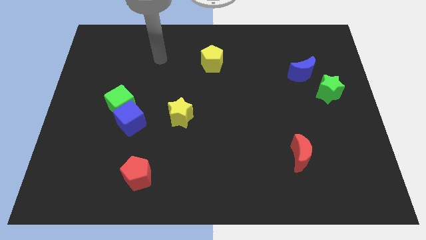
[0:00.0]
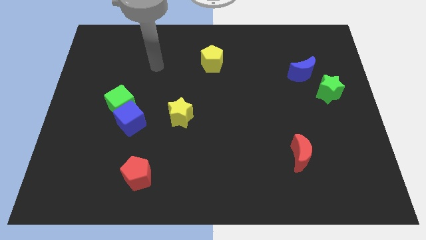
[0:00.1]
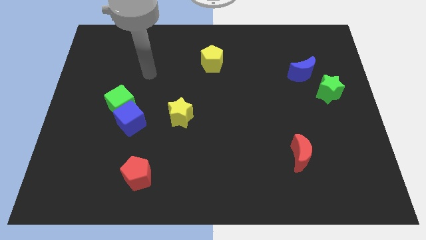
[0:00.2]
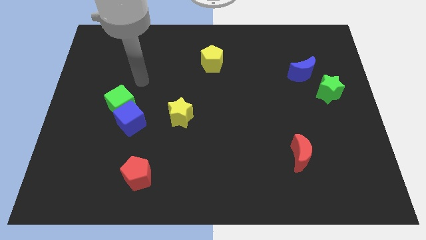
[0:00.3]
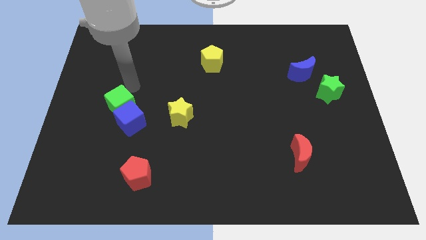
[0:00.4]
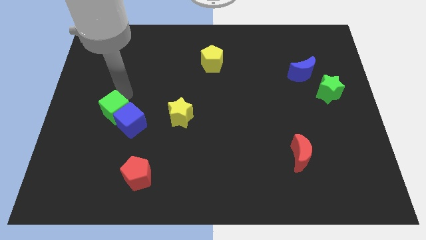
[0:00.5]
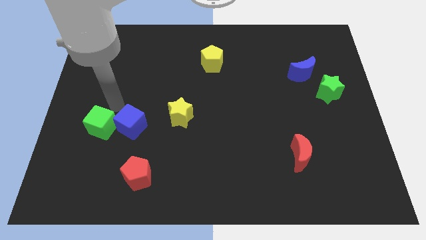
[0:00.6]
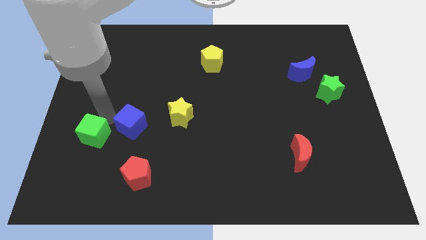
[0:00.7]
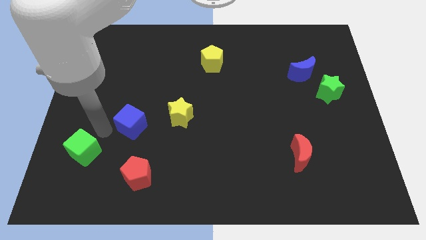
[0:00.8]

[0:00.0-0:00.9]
separate the blue cube from the green cube

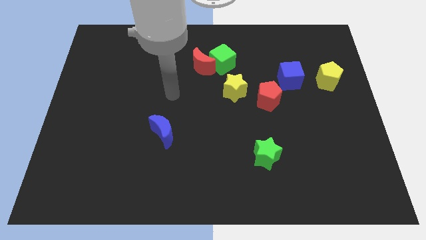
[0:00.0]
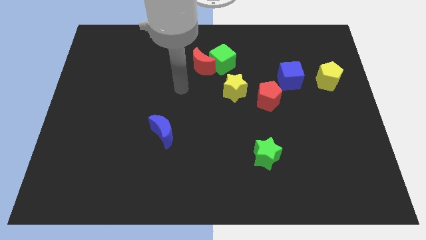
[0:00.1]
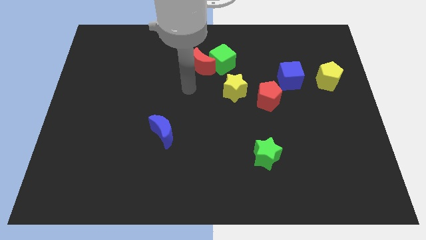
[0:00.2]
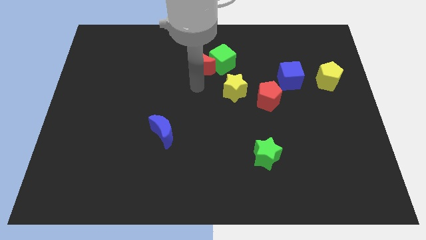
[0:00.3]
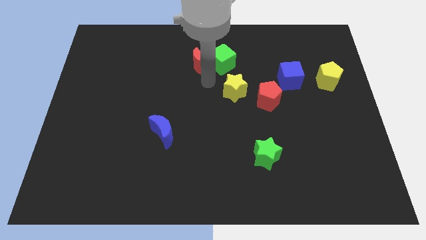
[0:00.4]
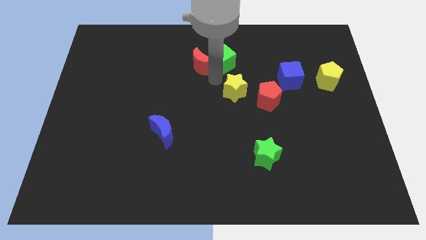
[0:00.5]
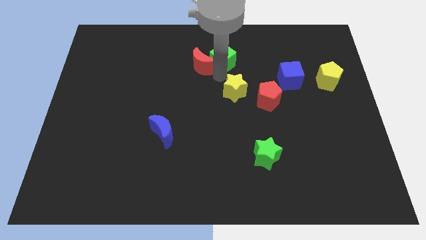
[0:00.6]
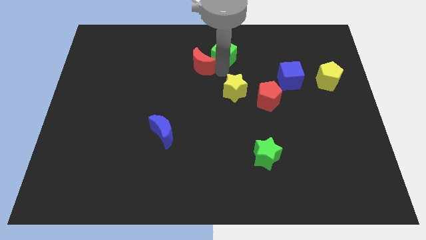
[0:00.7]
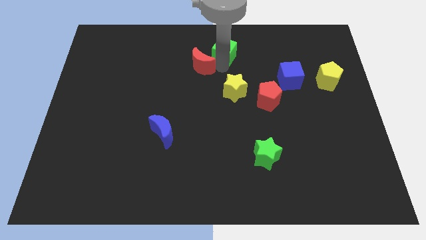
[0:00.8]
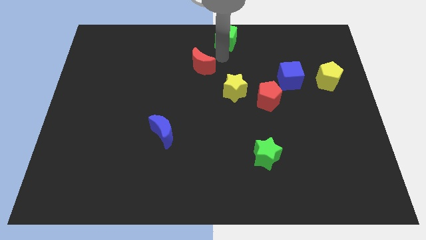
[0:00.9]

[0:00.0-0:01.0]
separate the red moon from the green cube

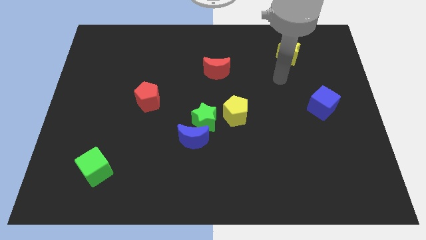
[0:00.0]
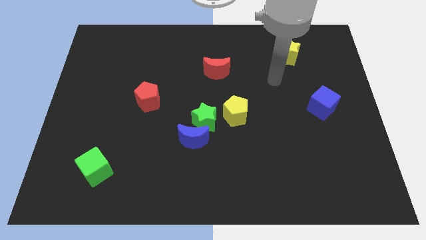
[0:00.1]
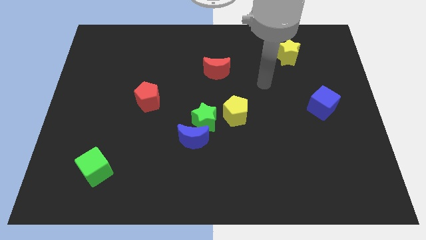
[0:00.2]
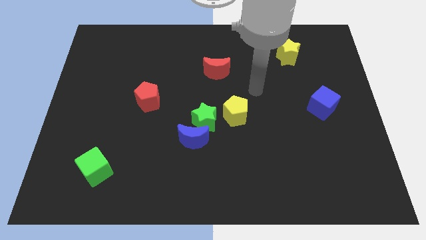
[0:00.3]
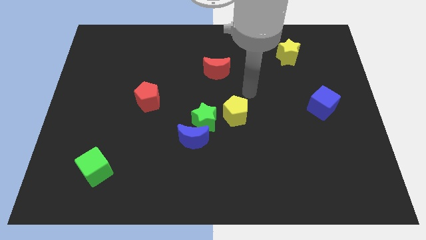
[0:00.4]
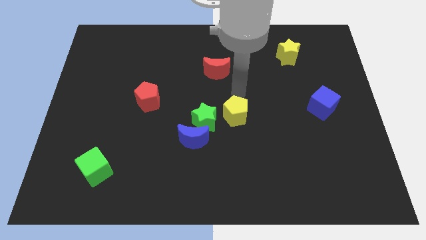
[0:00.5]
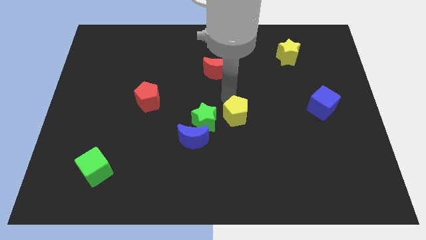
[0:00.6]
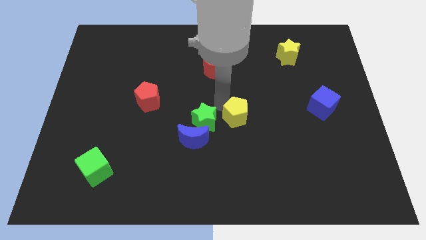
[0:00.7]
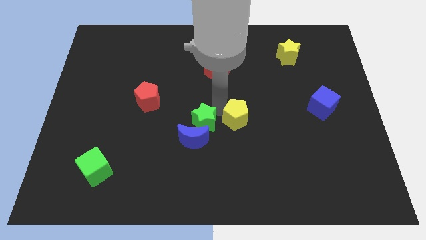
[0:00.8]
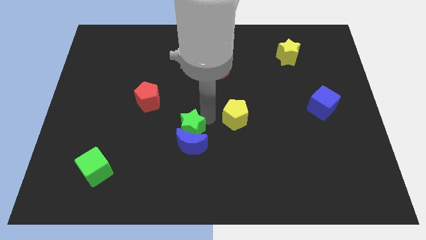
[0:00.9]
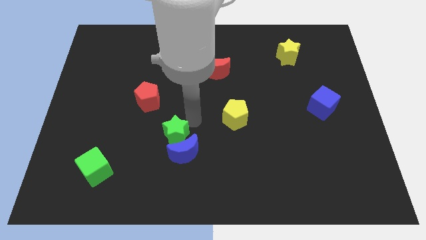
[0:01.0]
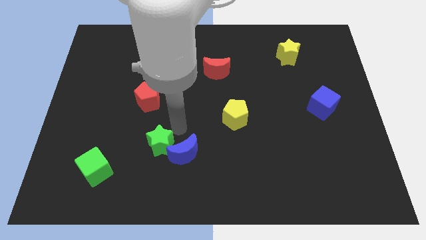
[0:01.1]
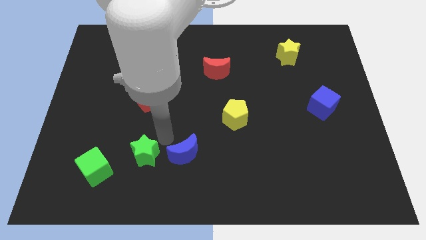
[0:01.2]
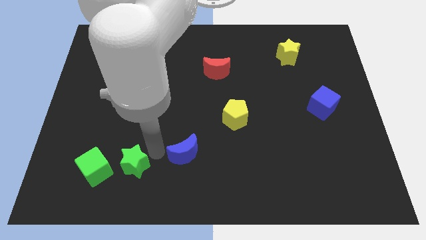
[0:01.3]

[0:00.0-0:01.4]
separate the blue moon from the green star

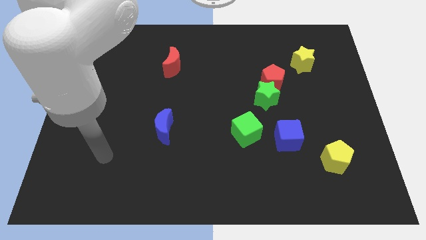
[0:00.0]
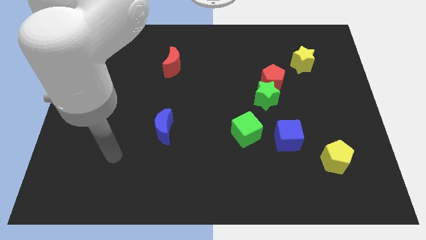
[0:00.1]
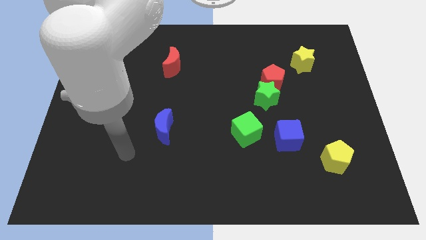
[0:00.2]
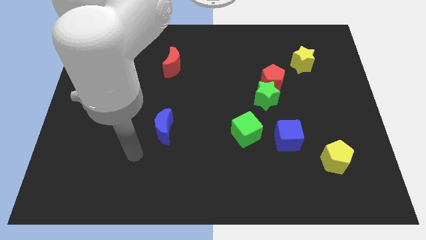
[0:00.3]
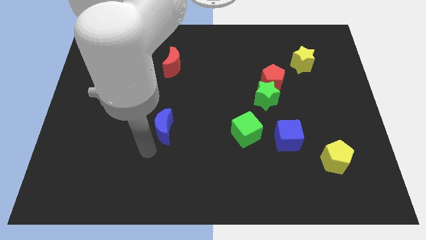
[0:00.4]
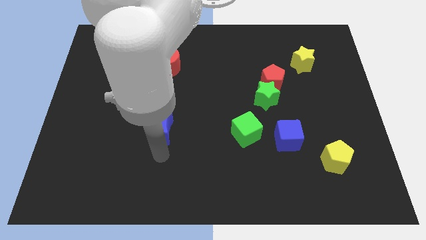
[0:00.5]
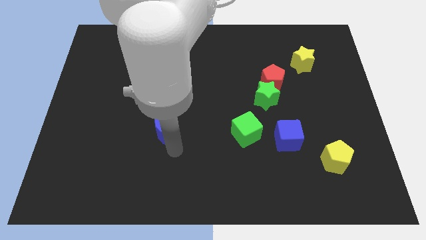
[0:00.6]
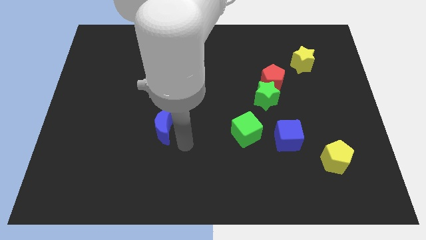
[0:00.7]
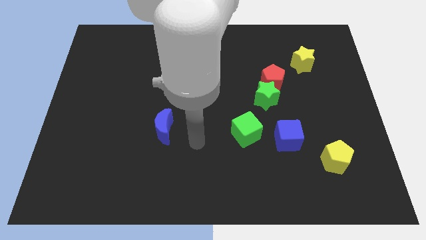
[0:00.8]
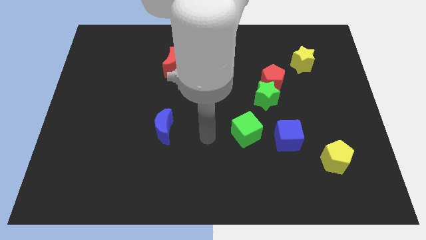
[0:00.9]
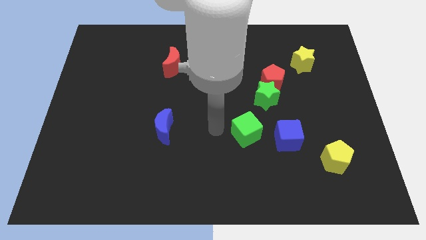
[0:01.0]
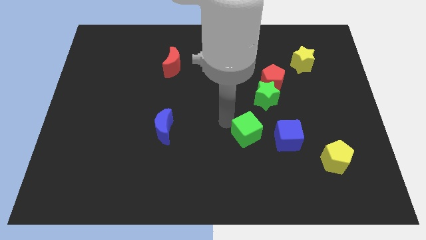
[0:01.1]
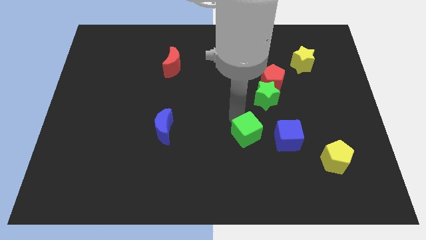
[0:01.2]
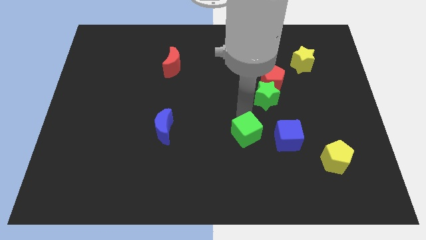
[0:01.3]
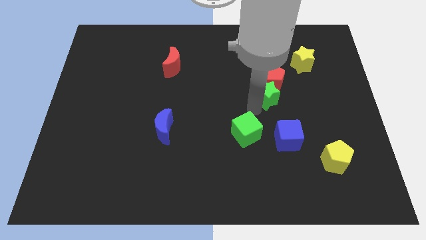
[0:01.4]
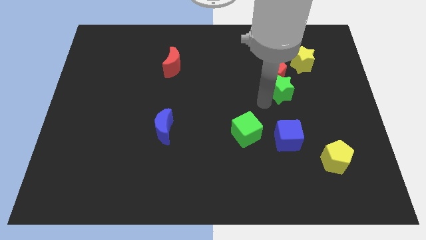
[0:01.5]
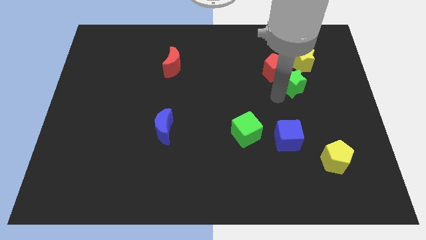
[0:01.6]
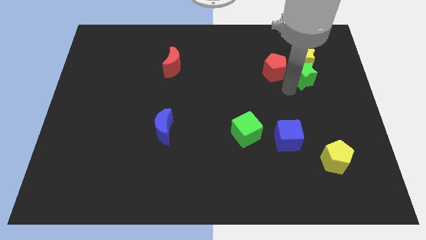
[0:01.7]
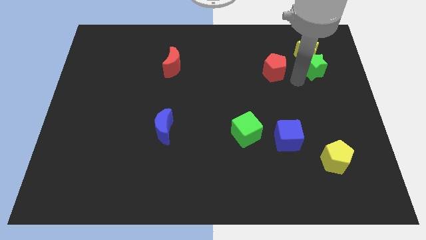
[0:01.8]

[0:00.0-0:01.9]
separate the red pentagon from the green star

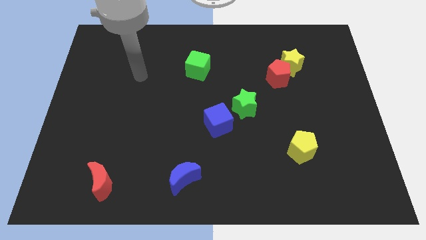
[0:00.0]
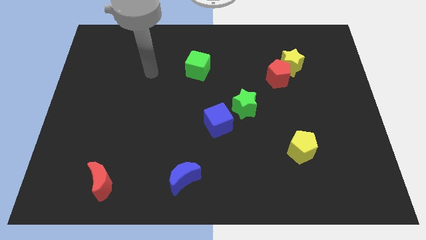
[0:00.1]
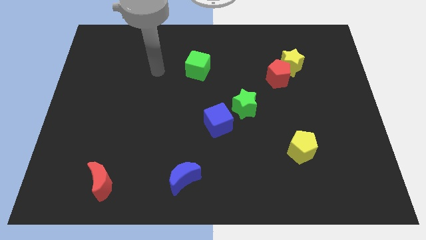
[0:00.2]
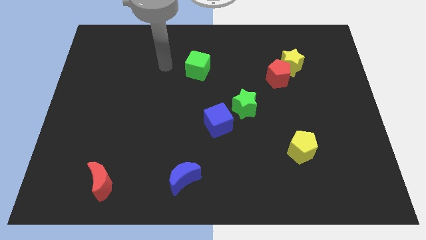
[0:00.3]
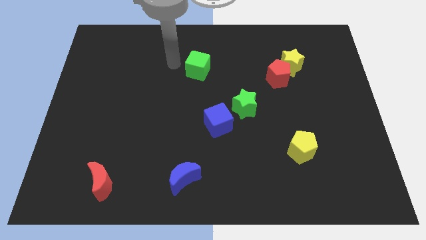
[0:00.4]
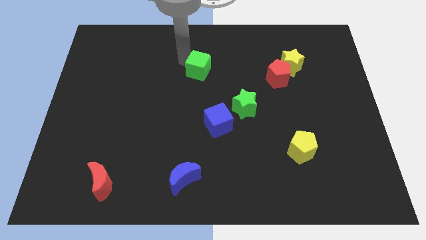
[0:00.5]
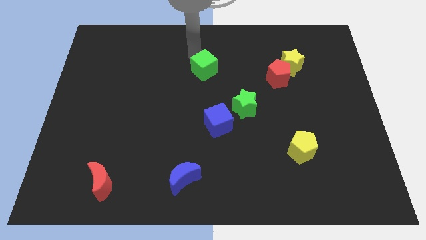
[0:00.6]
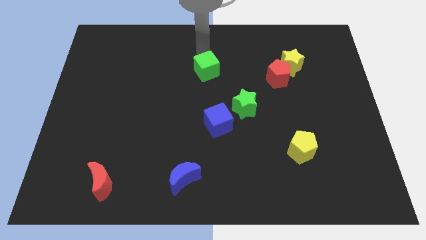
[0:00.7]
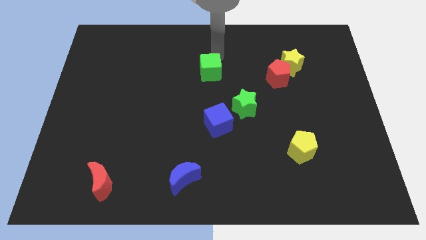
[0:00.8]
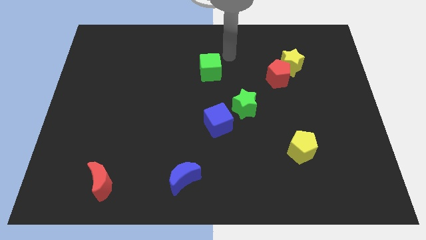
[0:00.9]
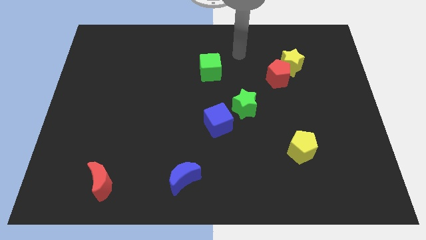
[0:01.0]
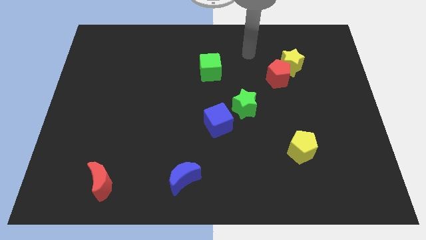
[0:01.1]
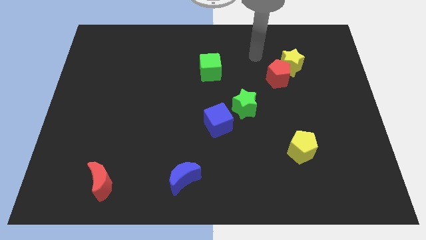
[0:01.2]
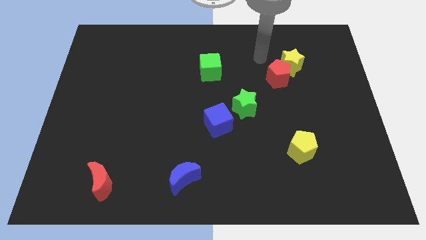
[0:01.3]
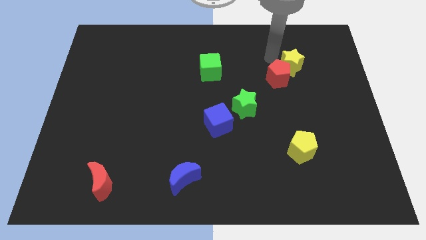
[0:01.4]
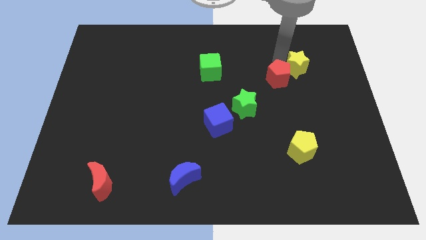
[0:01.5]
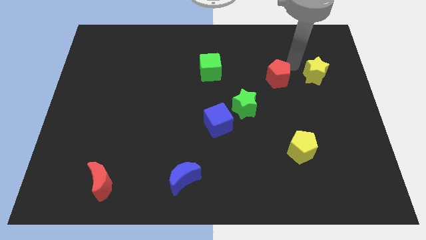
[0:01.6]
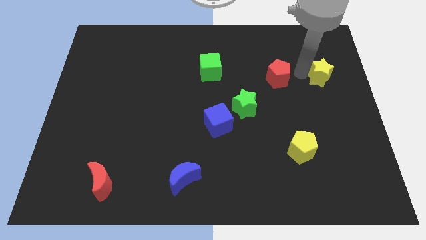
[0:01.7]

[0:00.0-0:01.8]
move the red pentagon away from the yellow star

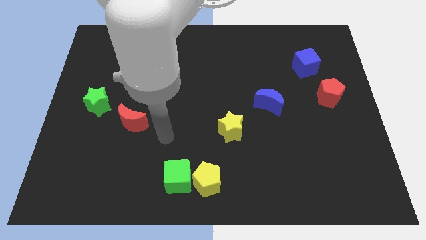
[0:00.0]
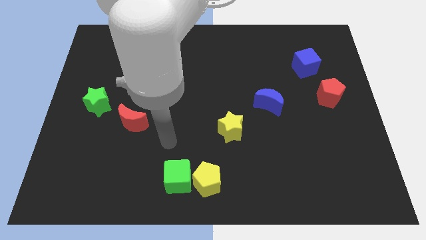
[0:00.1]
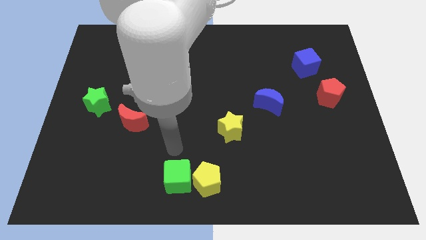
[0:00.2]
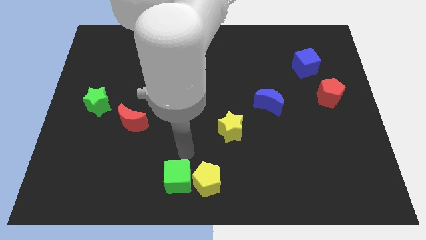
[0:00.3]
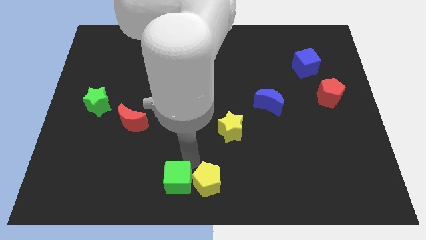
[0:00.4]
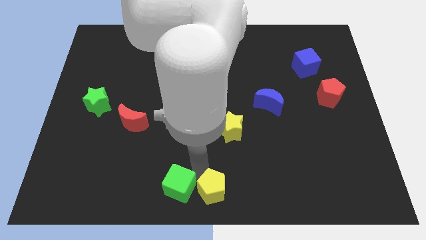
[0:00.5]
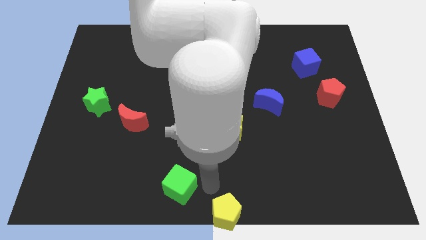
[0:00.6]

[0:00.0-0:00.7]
separate the green cube from the yellow pentagon

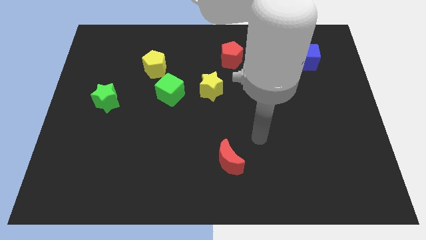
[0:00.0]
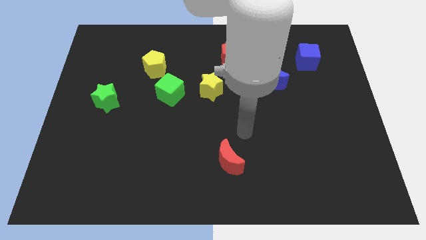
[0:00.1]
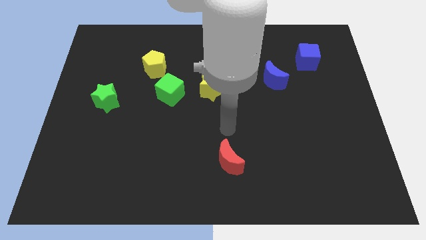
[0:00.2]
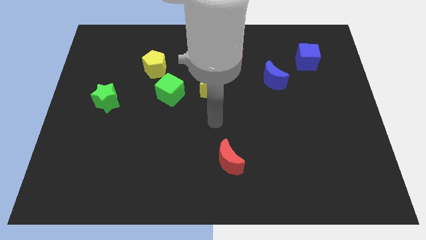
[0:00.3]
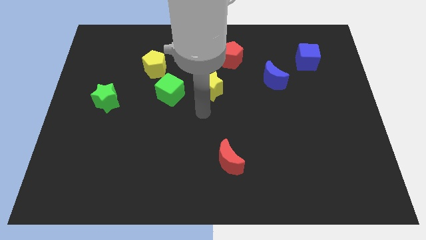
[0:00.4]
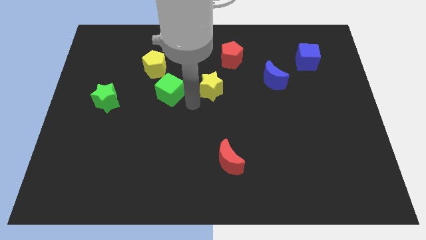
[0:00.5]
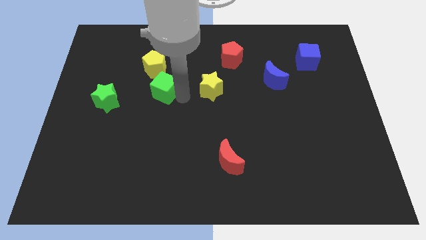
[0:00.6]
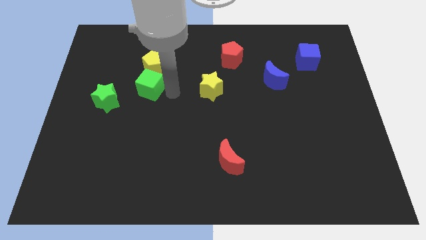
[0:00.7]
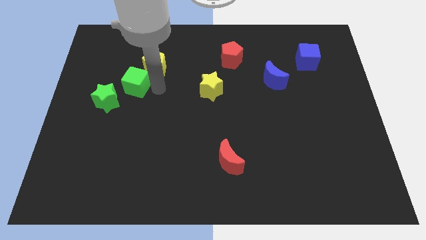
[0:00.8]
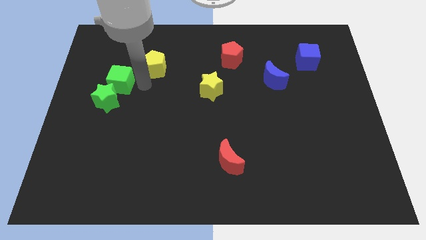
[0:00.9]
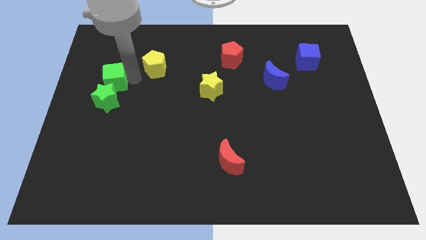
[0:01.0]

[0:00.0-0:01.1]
separate the yellow pentagon from the green cube

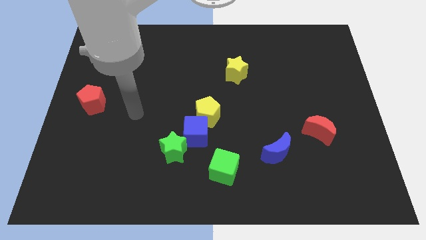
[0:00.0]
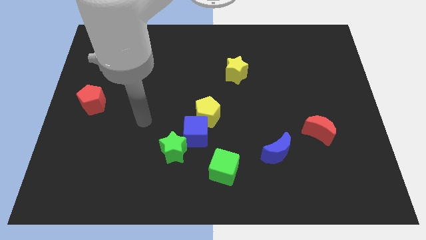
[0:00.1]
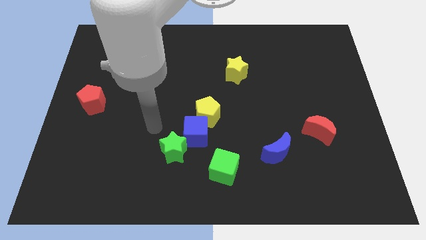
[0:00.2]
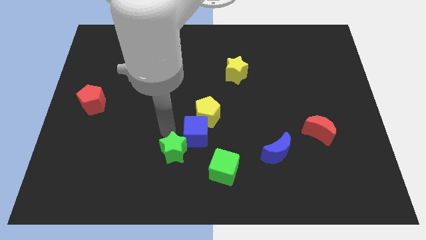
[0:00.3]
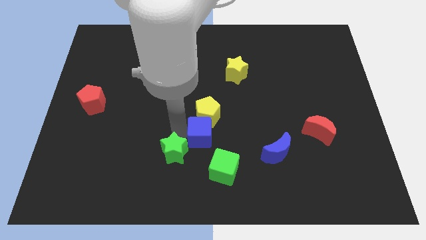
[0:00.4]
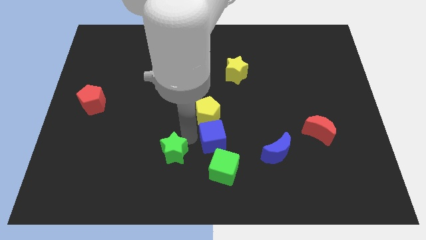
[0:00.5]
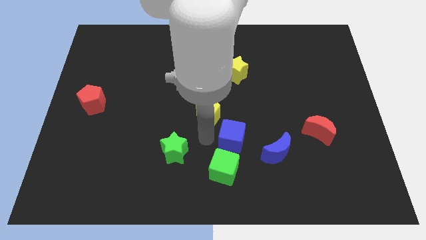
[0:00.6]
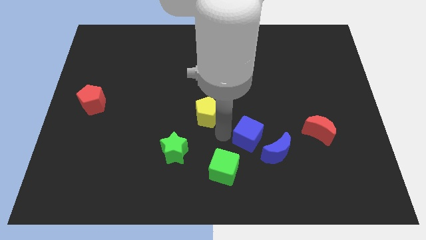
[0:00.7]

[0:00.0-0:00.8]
pull the yellow pentagon apart from the blue cube
